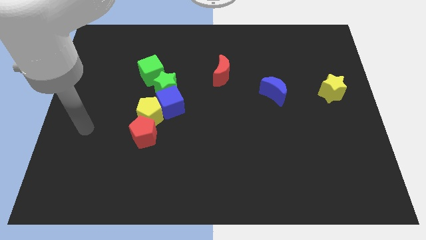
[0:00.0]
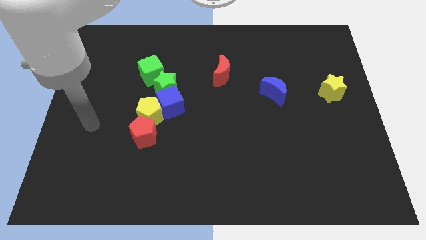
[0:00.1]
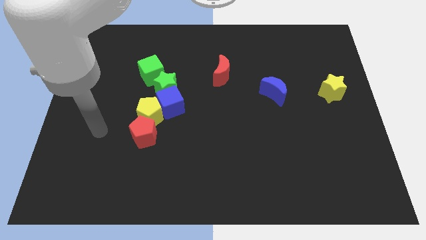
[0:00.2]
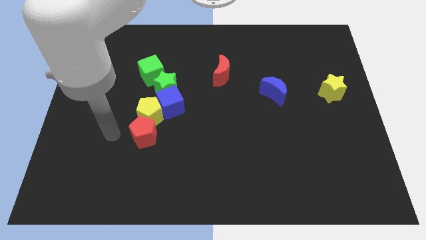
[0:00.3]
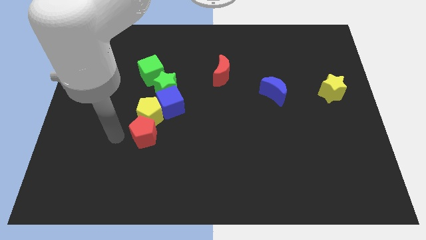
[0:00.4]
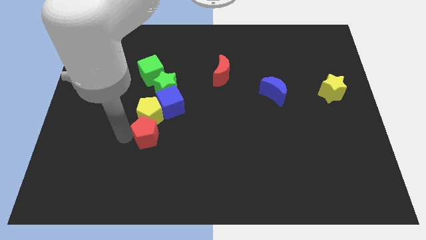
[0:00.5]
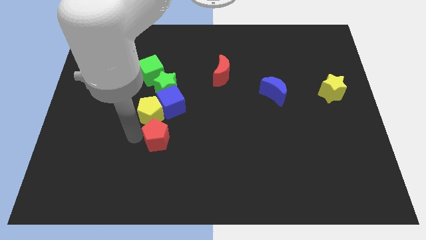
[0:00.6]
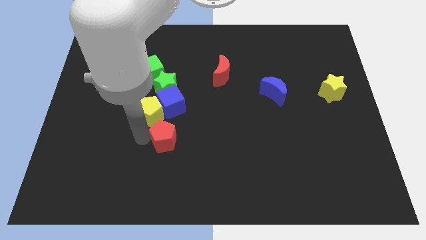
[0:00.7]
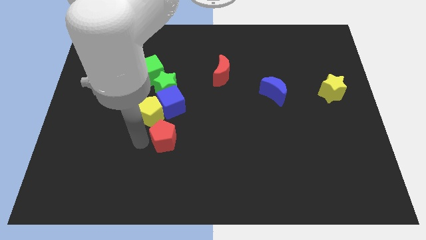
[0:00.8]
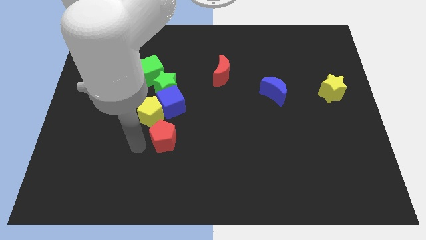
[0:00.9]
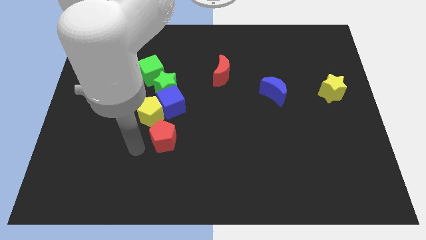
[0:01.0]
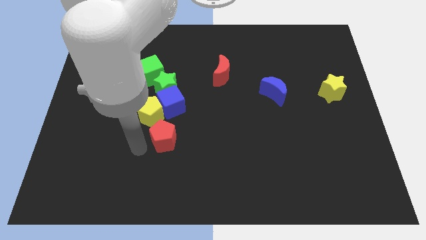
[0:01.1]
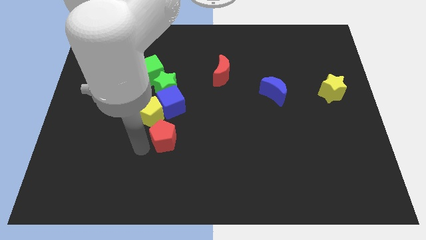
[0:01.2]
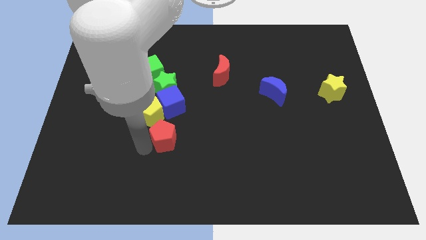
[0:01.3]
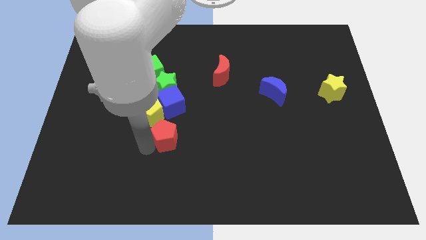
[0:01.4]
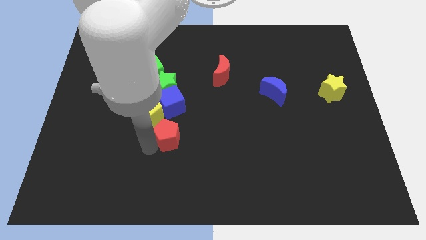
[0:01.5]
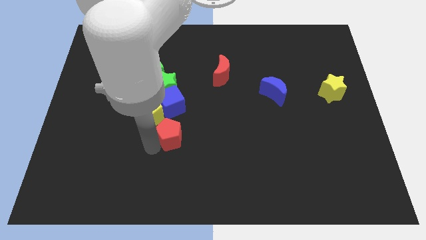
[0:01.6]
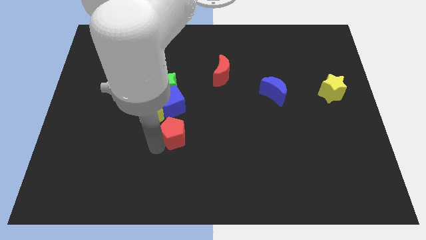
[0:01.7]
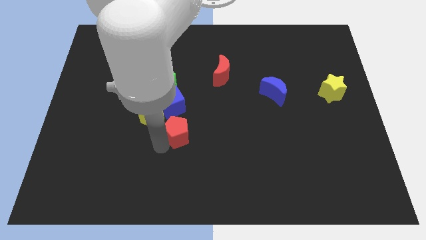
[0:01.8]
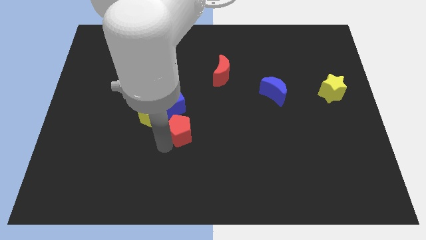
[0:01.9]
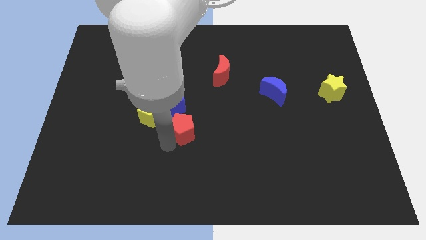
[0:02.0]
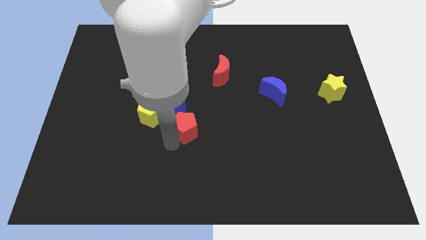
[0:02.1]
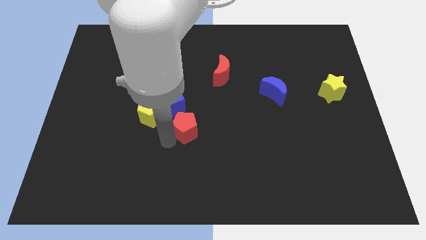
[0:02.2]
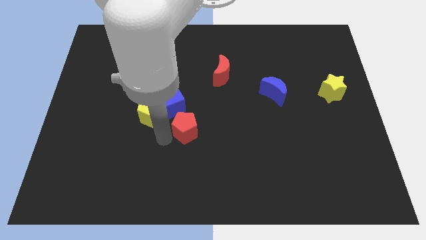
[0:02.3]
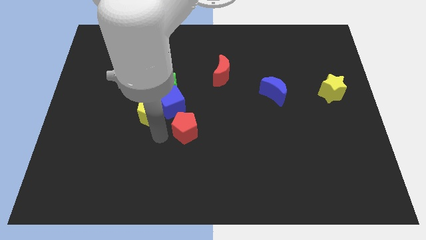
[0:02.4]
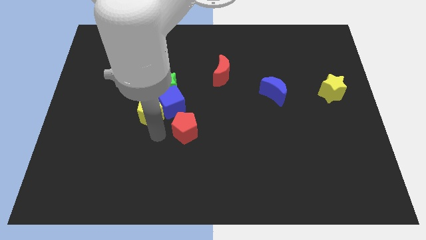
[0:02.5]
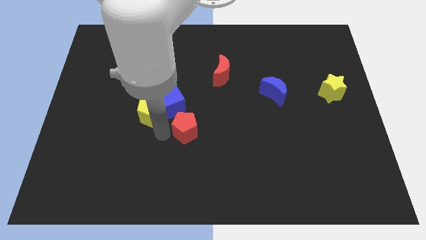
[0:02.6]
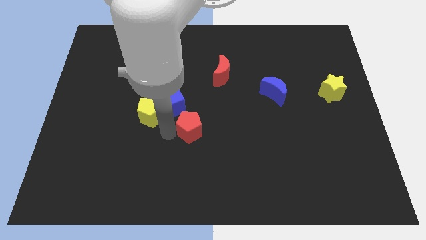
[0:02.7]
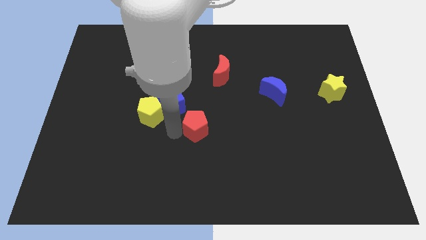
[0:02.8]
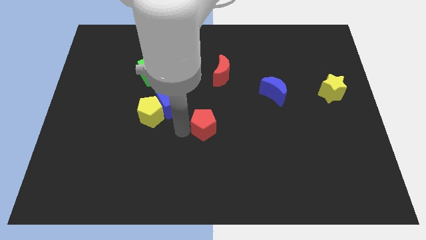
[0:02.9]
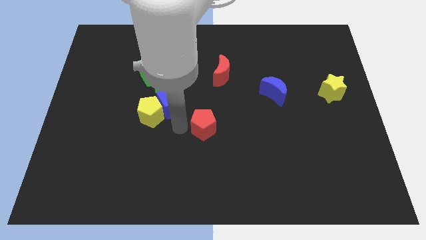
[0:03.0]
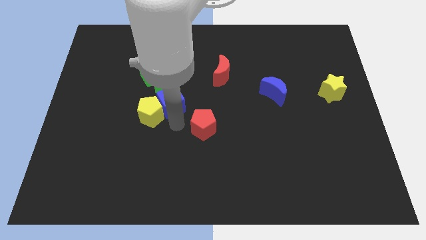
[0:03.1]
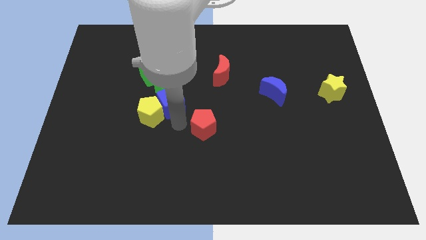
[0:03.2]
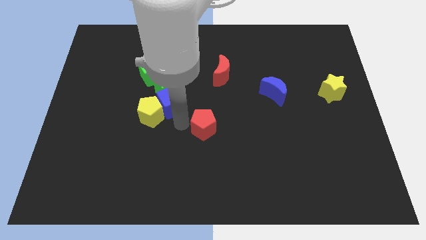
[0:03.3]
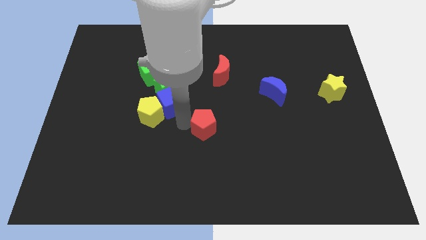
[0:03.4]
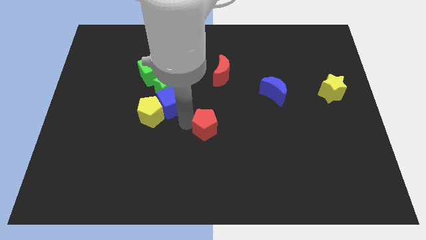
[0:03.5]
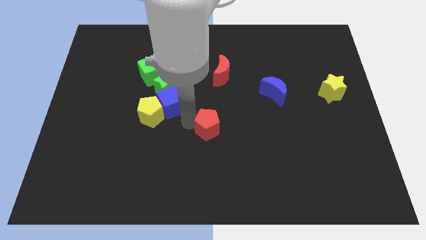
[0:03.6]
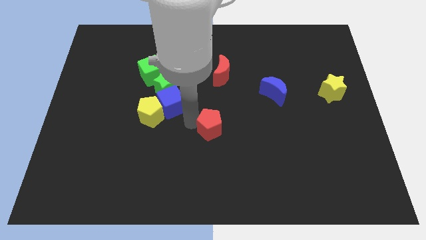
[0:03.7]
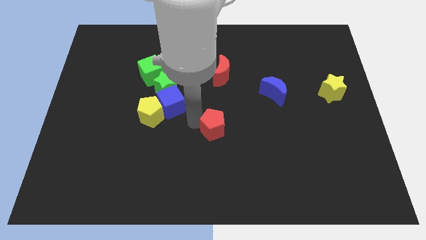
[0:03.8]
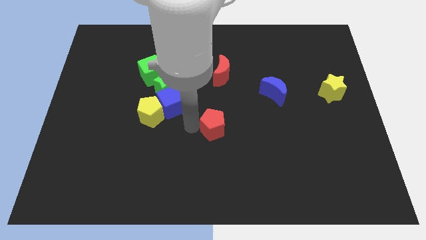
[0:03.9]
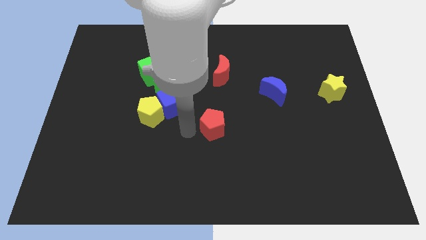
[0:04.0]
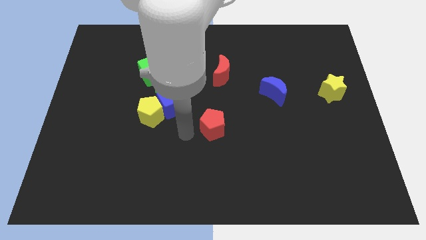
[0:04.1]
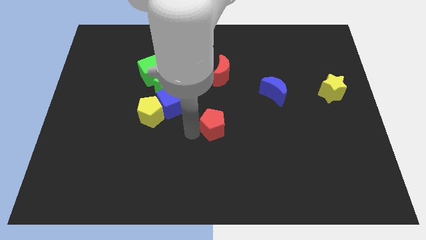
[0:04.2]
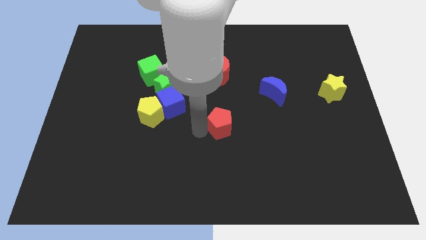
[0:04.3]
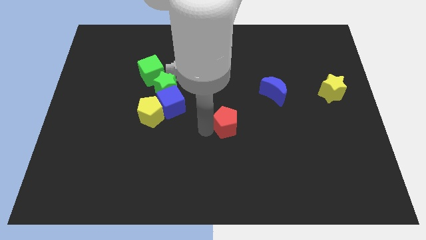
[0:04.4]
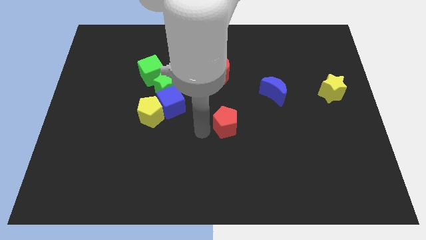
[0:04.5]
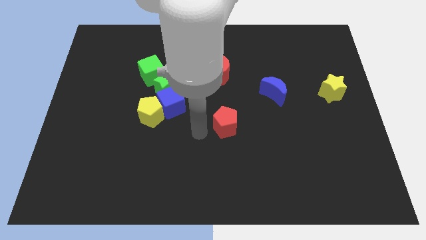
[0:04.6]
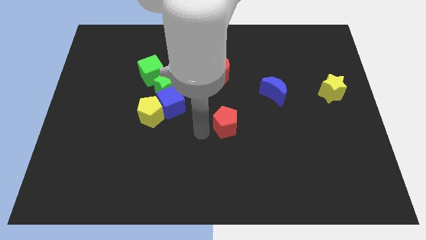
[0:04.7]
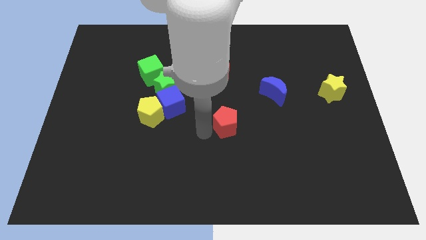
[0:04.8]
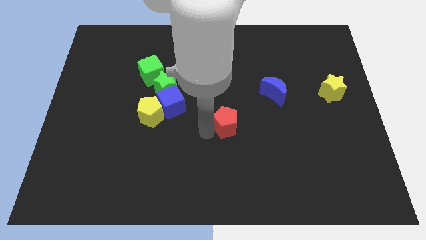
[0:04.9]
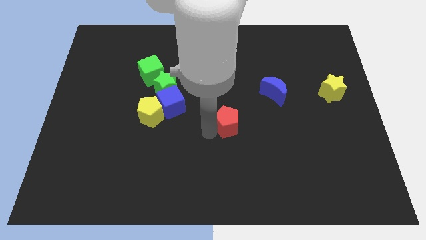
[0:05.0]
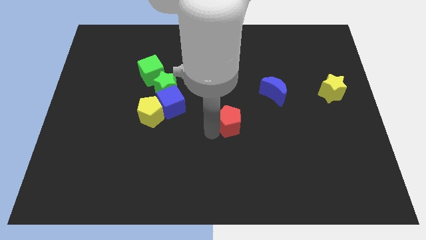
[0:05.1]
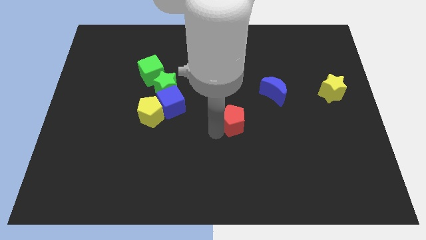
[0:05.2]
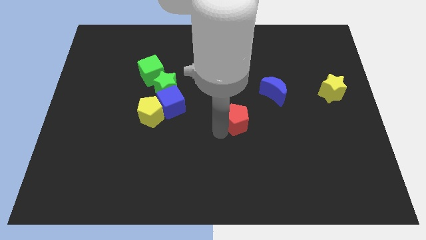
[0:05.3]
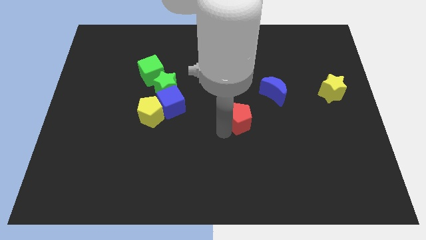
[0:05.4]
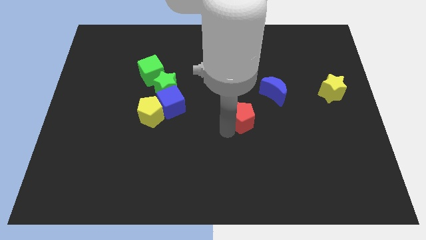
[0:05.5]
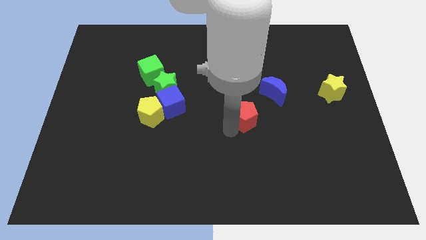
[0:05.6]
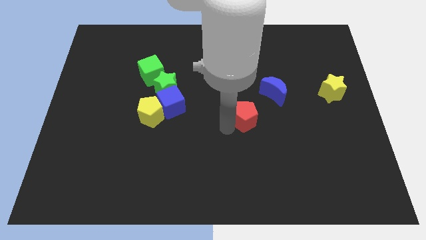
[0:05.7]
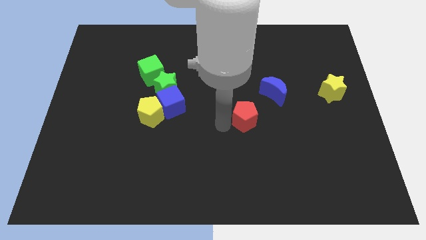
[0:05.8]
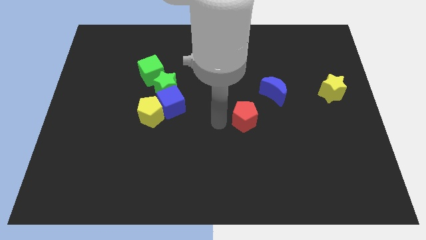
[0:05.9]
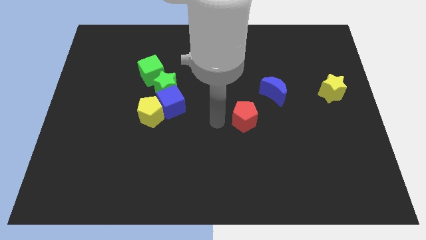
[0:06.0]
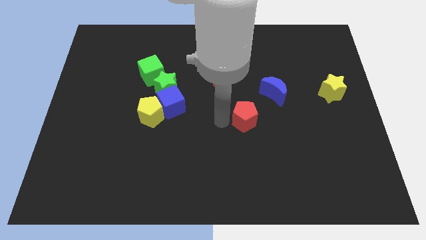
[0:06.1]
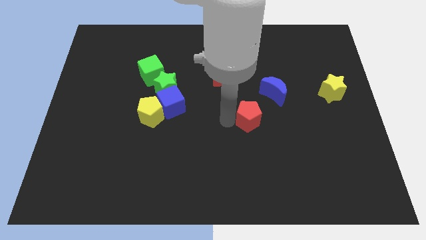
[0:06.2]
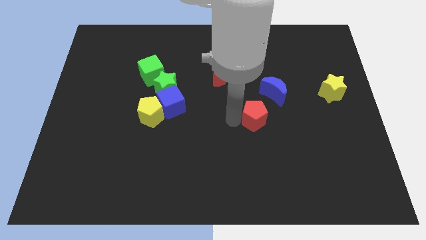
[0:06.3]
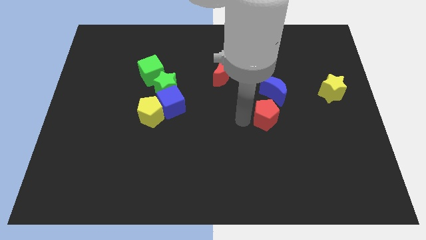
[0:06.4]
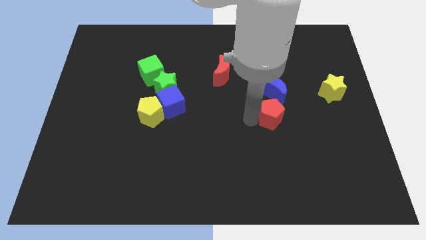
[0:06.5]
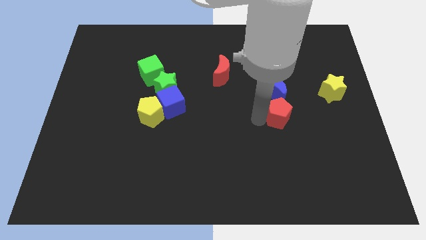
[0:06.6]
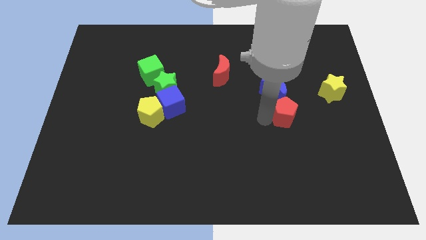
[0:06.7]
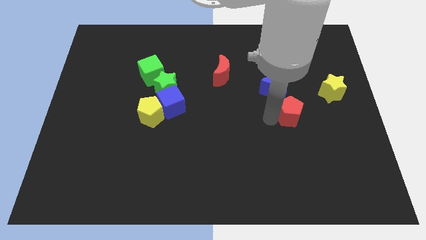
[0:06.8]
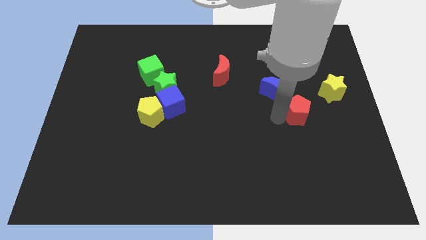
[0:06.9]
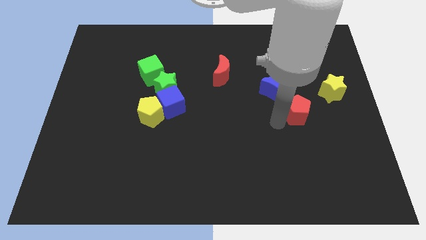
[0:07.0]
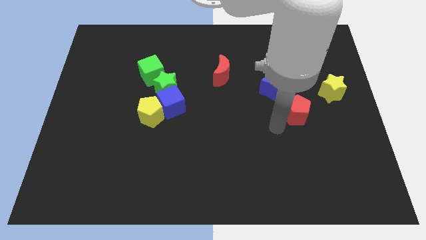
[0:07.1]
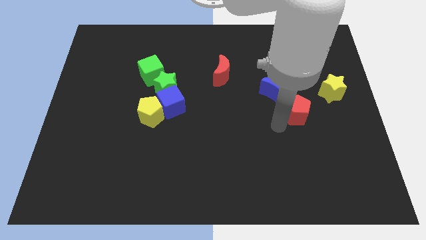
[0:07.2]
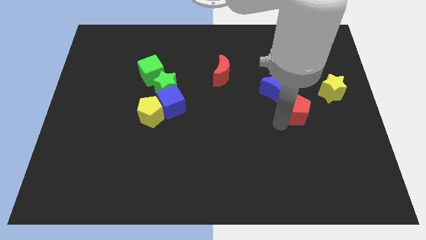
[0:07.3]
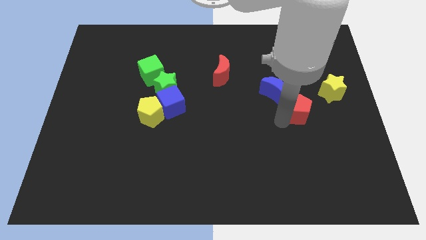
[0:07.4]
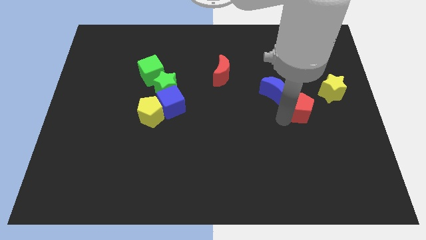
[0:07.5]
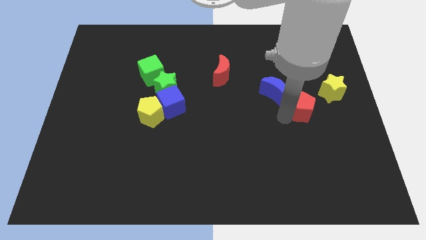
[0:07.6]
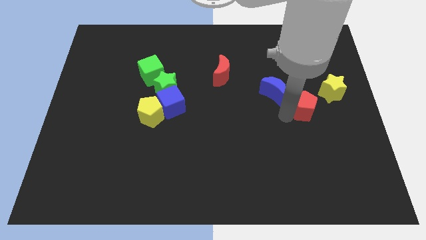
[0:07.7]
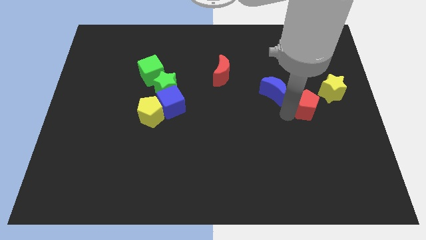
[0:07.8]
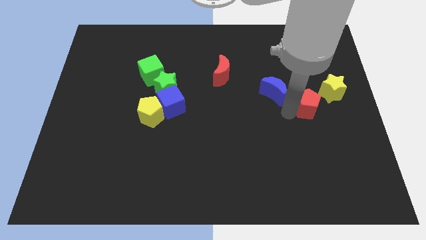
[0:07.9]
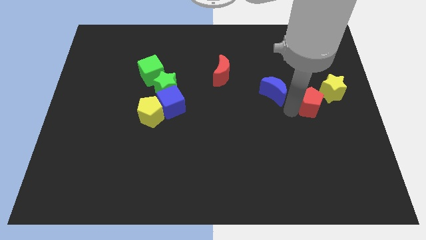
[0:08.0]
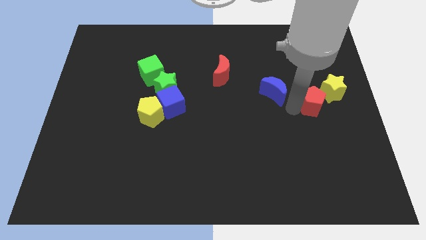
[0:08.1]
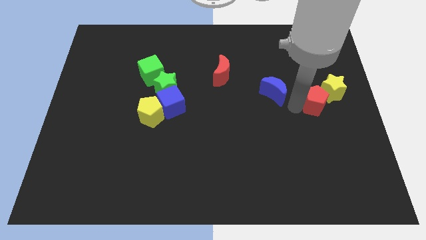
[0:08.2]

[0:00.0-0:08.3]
push the red pentagon next to the yellow star
